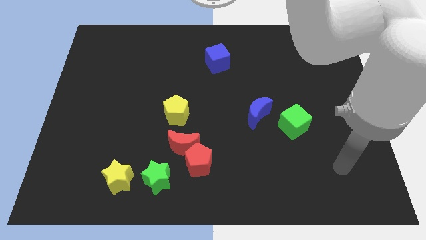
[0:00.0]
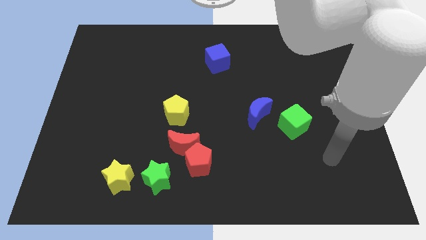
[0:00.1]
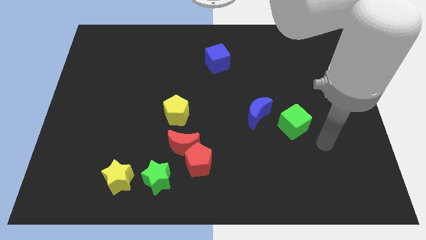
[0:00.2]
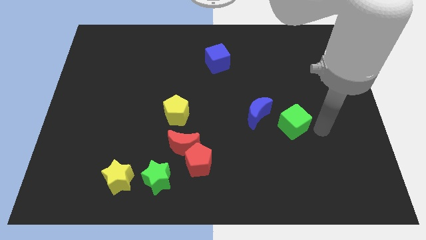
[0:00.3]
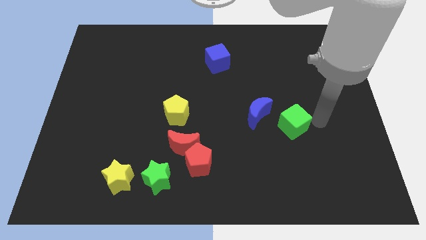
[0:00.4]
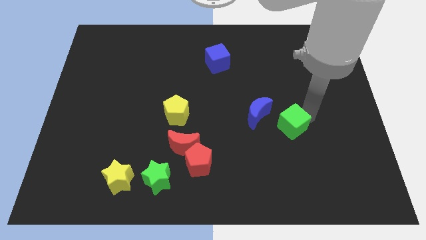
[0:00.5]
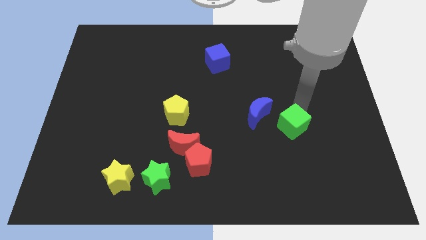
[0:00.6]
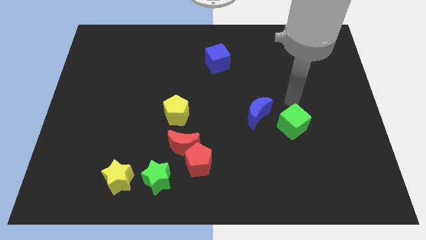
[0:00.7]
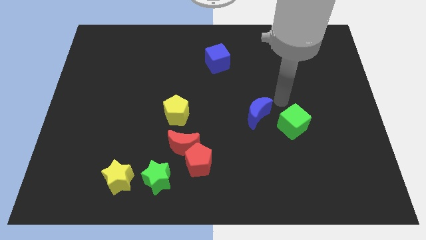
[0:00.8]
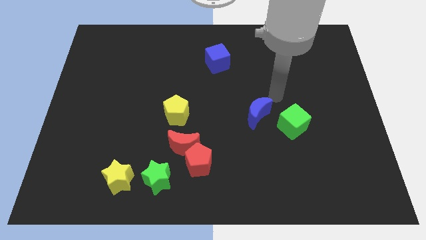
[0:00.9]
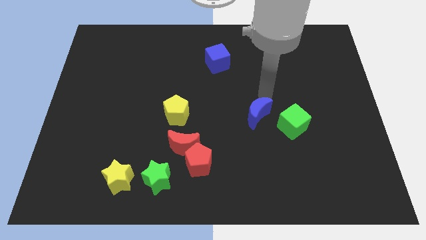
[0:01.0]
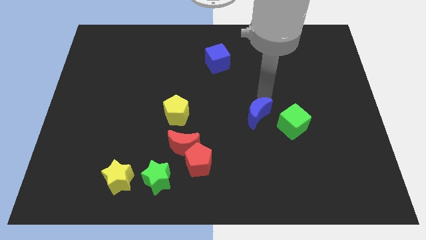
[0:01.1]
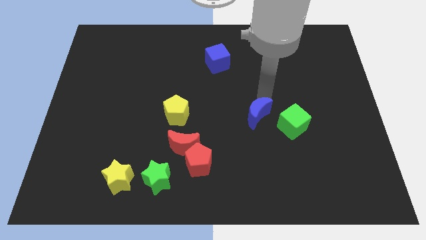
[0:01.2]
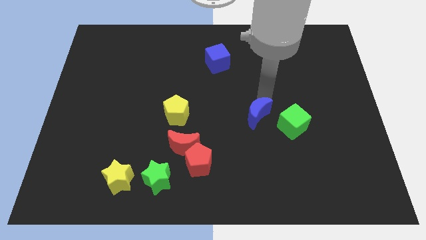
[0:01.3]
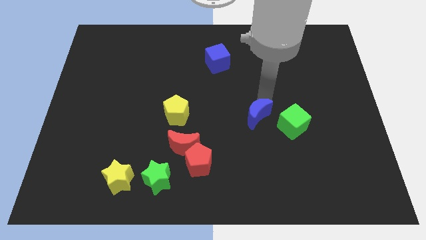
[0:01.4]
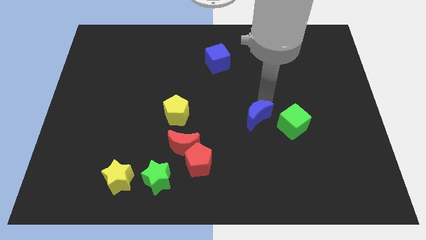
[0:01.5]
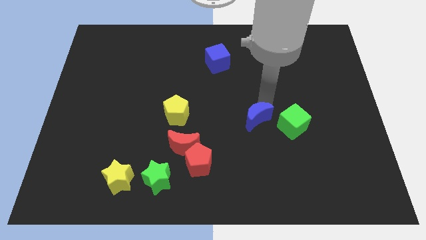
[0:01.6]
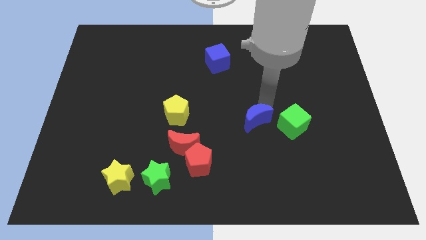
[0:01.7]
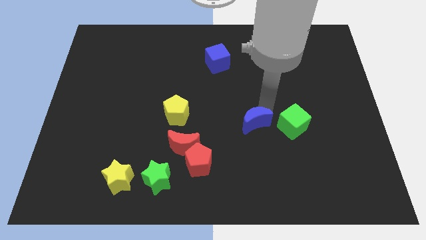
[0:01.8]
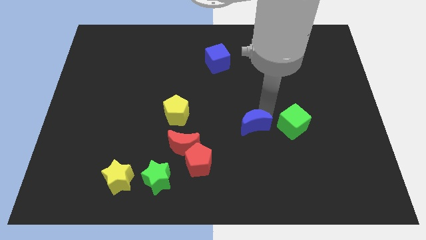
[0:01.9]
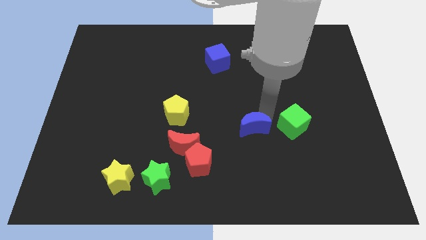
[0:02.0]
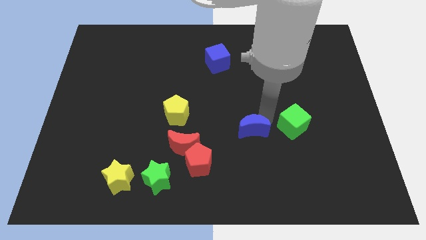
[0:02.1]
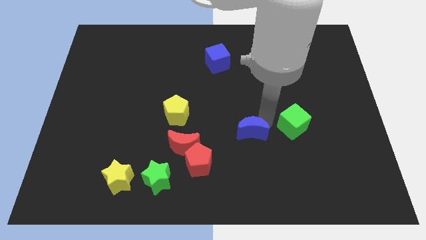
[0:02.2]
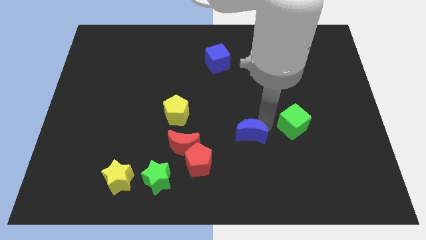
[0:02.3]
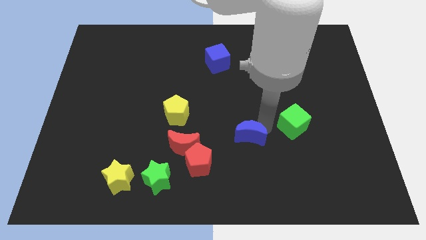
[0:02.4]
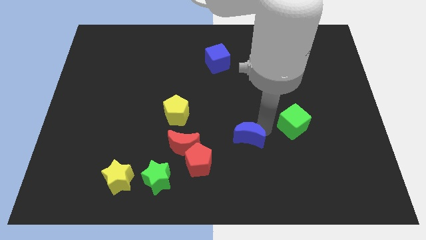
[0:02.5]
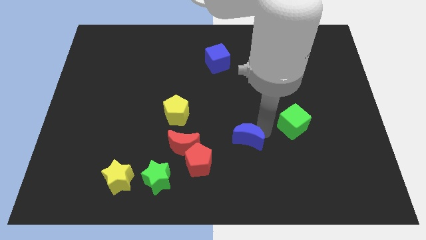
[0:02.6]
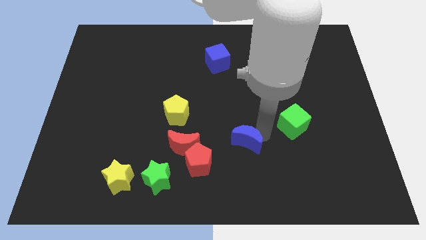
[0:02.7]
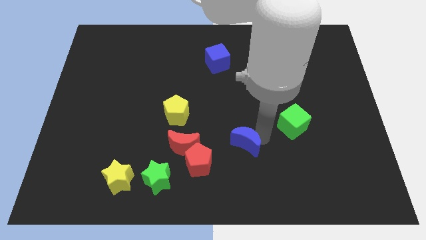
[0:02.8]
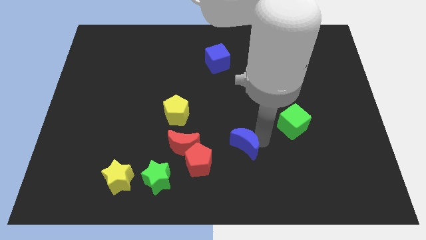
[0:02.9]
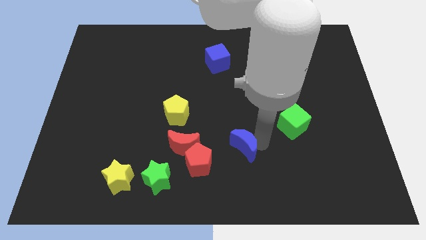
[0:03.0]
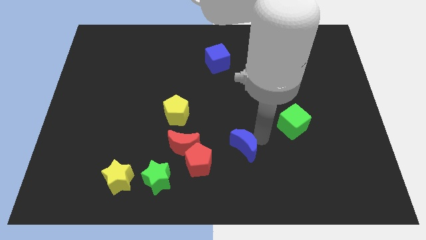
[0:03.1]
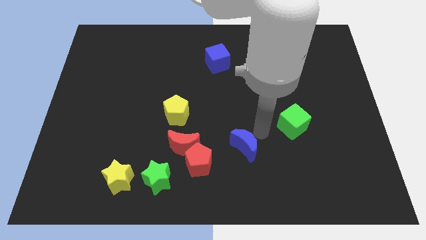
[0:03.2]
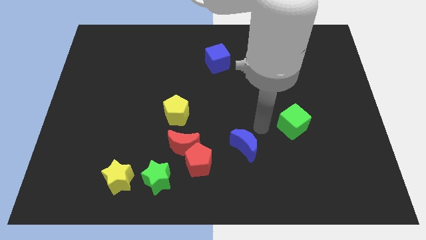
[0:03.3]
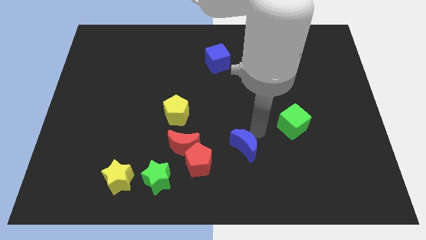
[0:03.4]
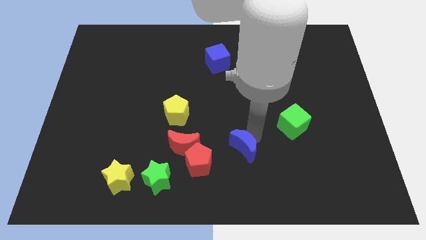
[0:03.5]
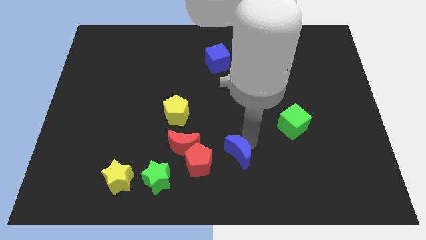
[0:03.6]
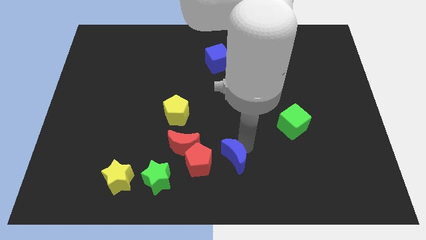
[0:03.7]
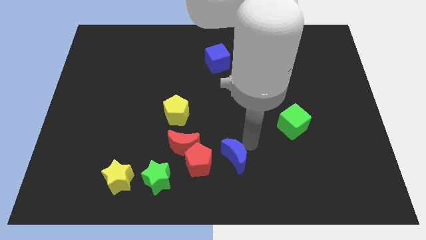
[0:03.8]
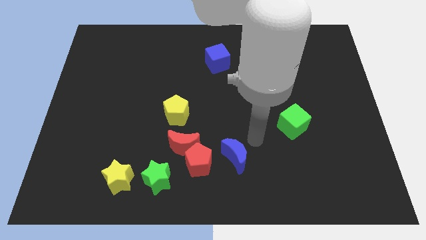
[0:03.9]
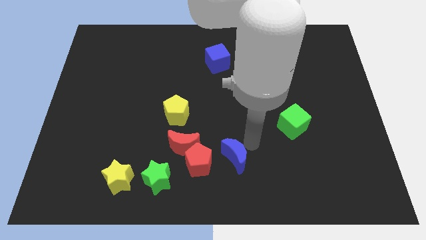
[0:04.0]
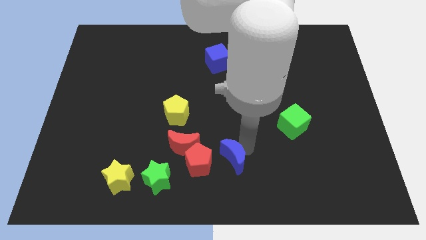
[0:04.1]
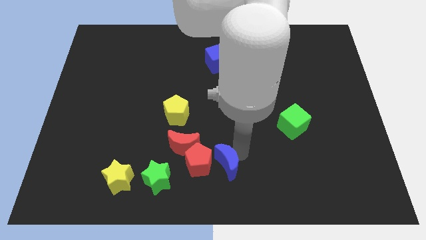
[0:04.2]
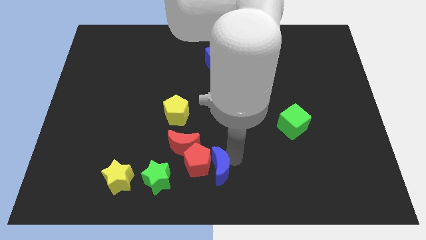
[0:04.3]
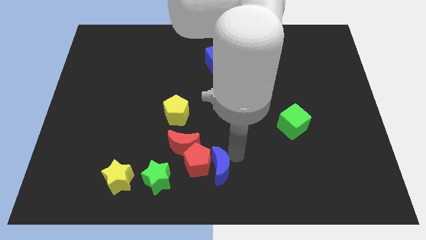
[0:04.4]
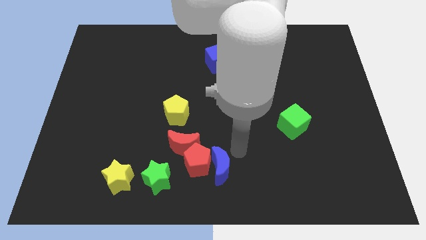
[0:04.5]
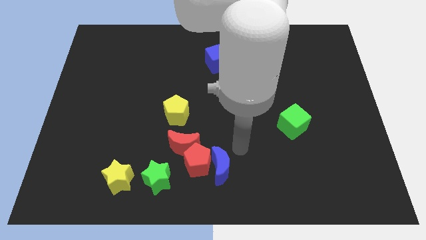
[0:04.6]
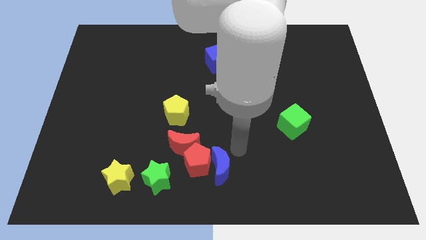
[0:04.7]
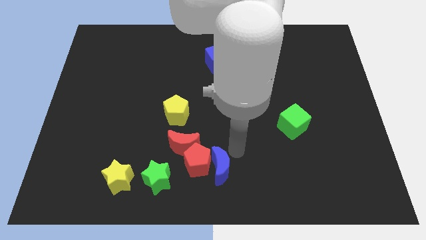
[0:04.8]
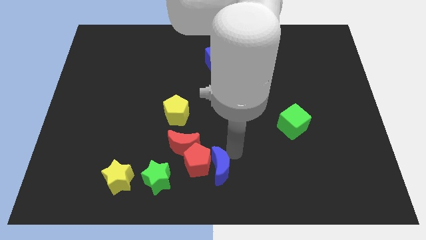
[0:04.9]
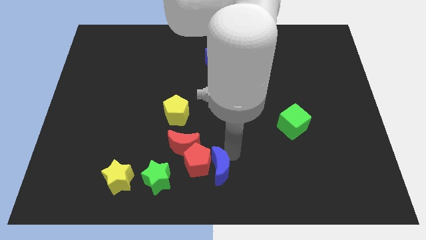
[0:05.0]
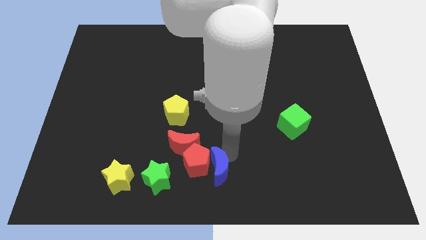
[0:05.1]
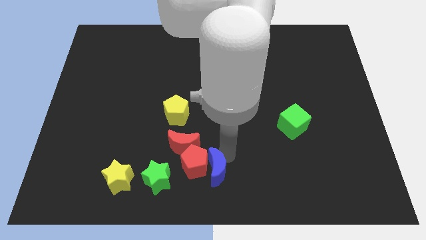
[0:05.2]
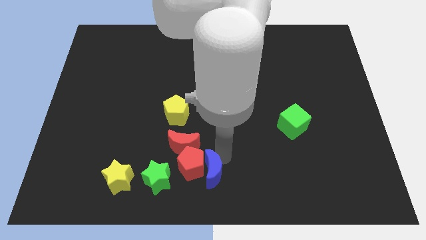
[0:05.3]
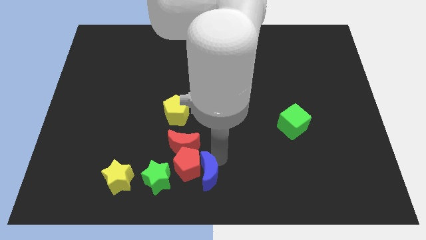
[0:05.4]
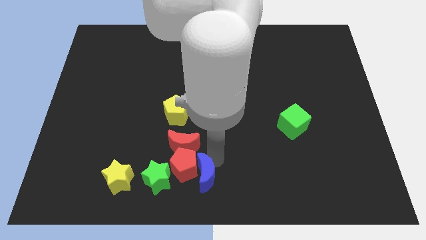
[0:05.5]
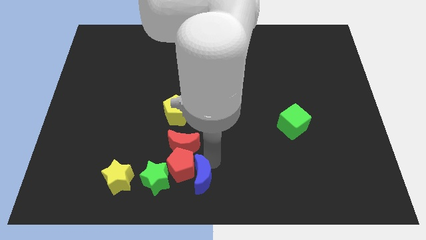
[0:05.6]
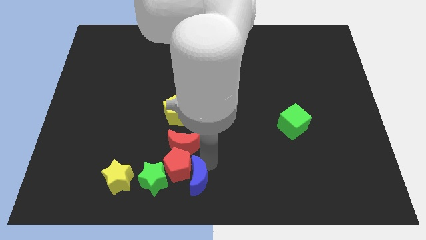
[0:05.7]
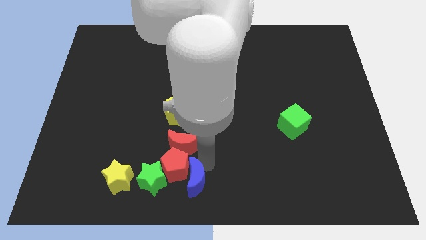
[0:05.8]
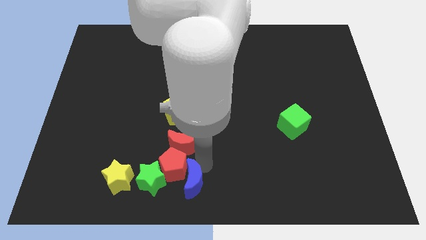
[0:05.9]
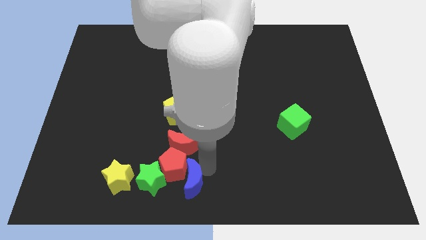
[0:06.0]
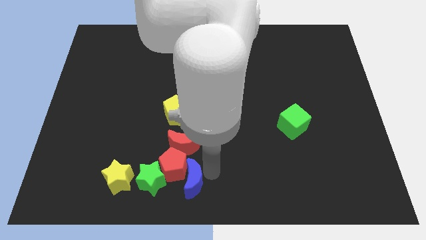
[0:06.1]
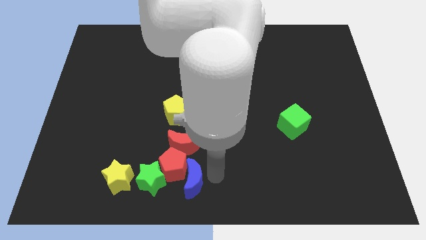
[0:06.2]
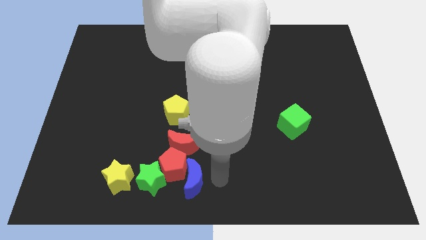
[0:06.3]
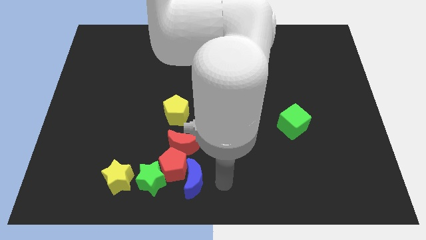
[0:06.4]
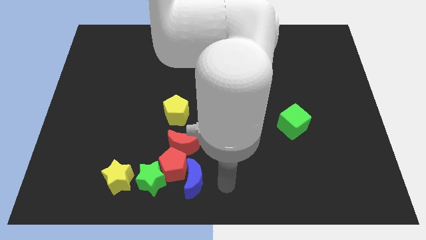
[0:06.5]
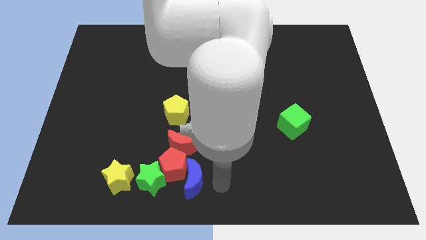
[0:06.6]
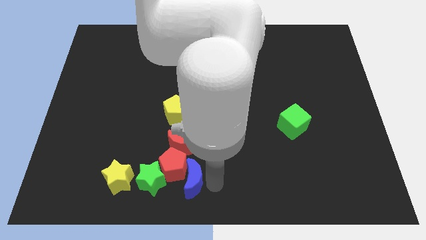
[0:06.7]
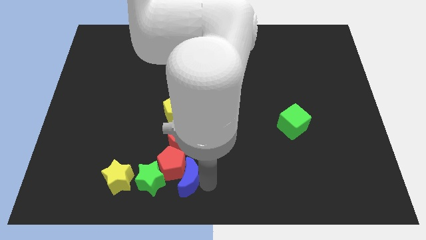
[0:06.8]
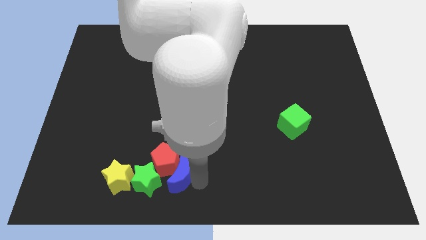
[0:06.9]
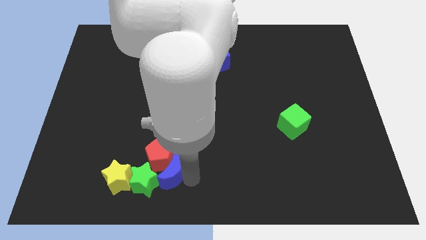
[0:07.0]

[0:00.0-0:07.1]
move the blue moon towards the green star
